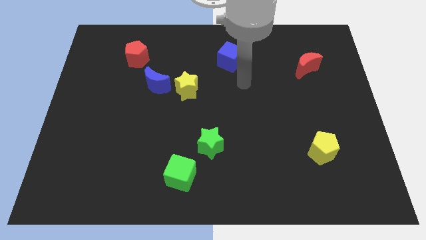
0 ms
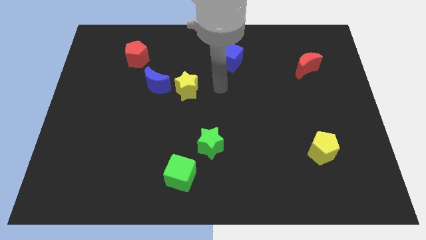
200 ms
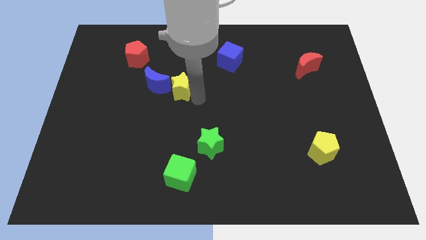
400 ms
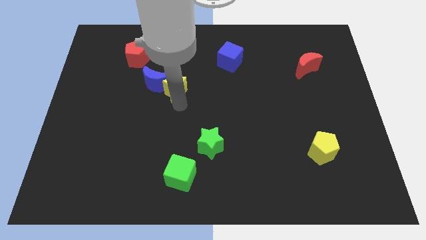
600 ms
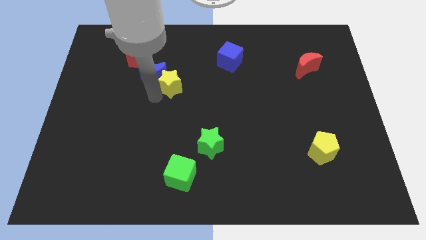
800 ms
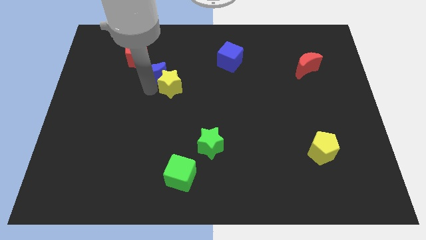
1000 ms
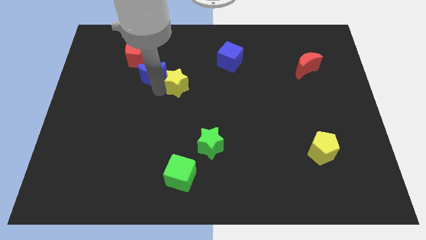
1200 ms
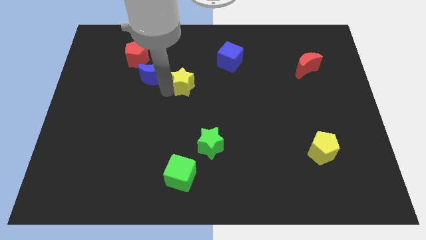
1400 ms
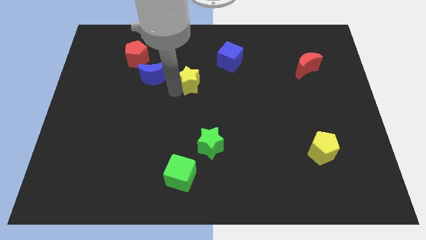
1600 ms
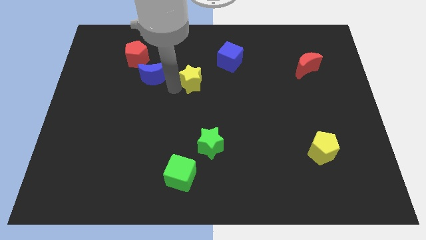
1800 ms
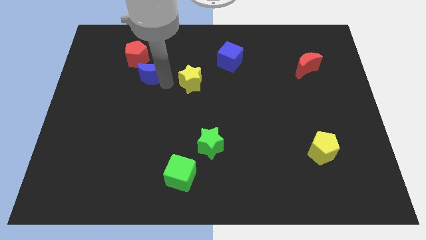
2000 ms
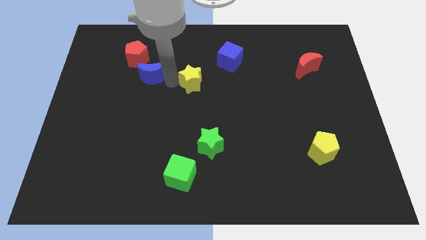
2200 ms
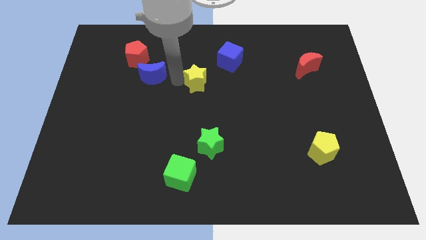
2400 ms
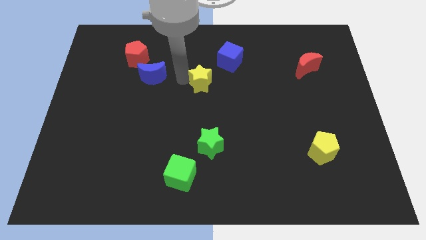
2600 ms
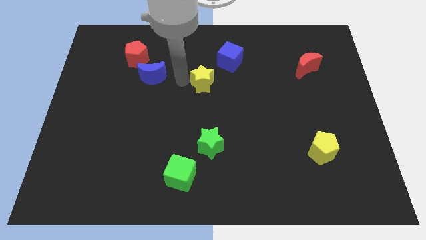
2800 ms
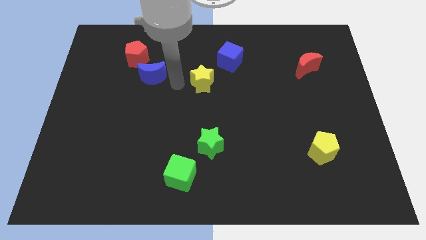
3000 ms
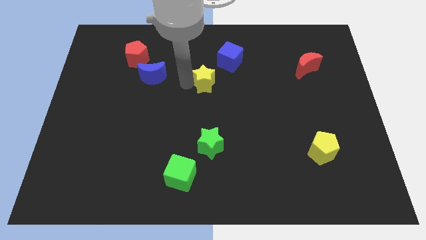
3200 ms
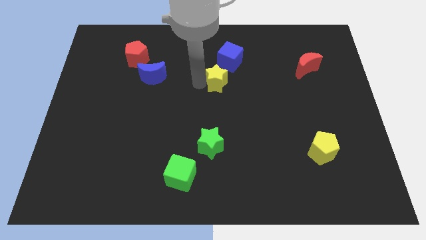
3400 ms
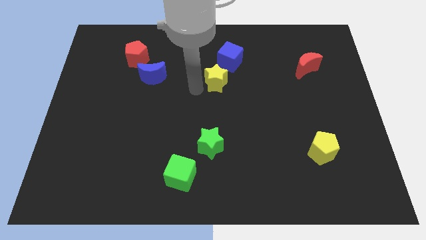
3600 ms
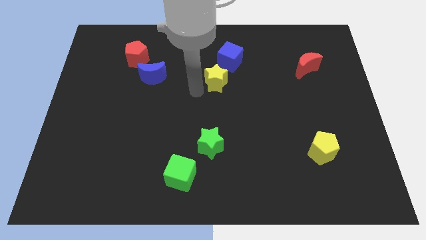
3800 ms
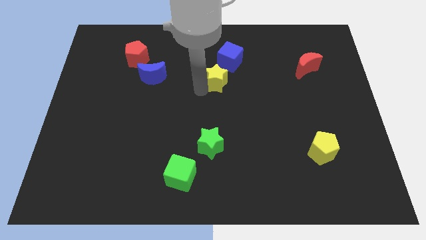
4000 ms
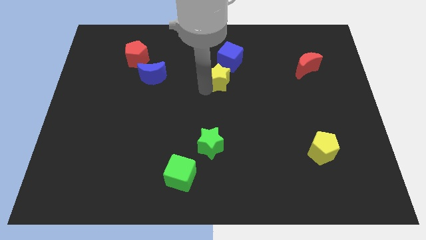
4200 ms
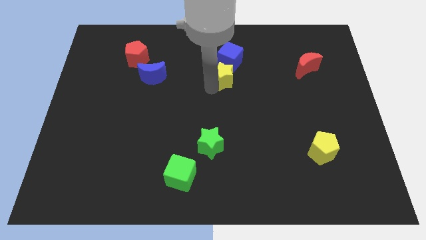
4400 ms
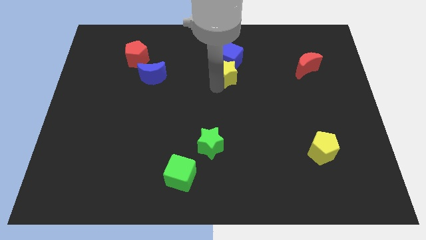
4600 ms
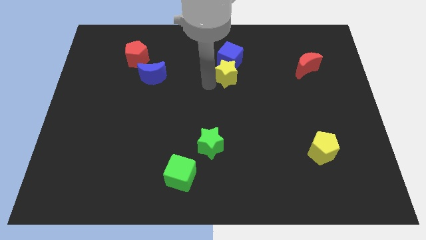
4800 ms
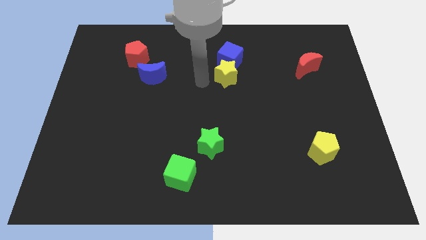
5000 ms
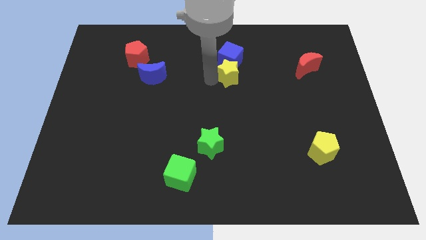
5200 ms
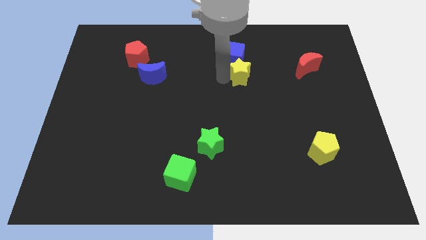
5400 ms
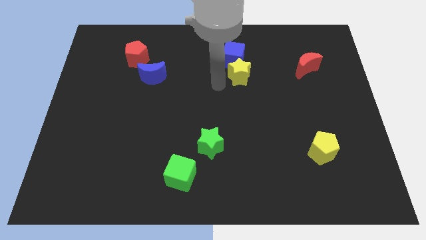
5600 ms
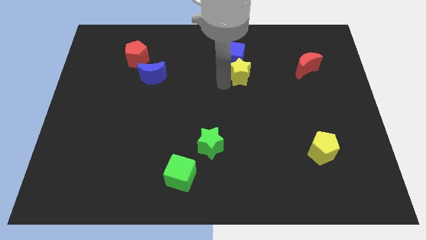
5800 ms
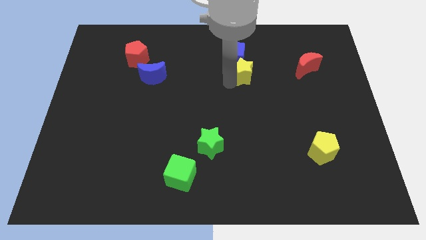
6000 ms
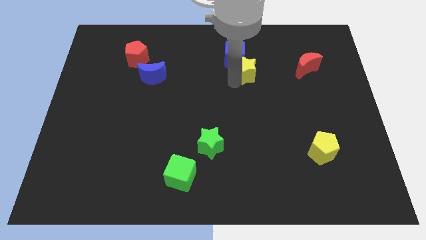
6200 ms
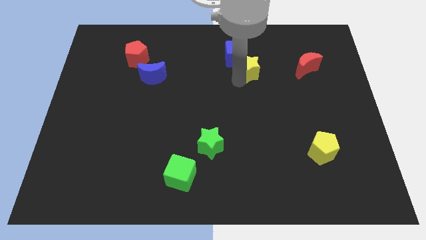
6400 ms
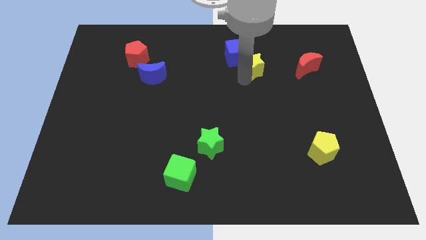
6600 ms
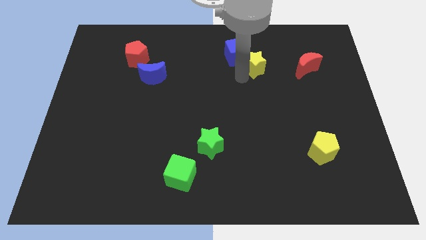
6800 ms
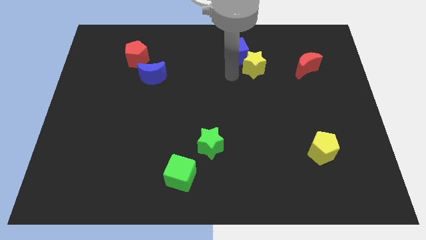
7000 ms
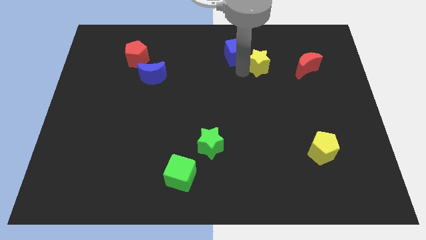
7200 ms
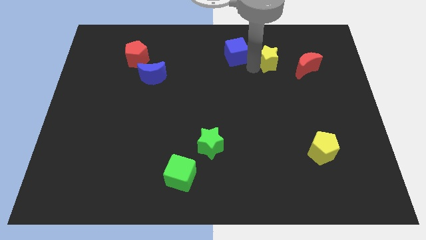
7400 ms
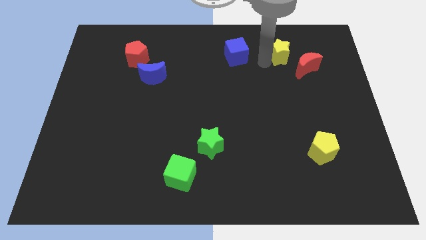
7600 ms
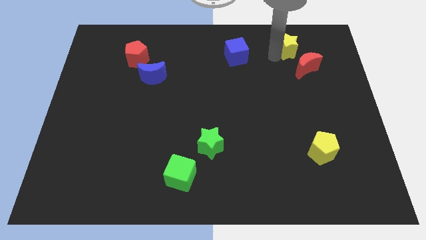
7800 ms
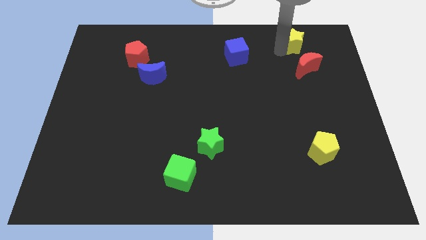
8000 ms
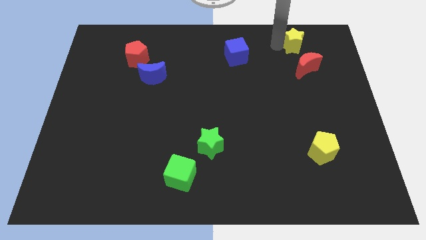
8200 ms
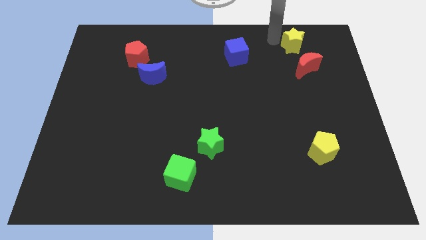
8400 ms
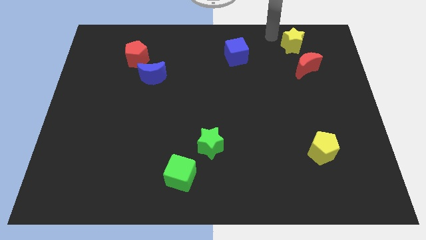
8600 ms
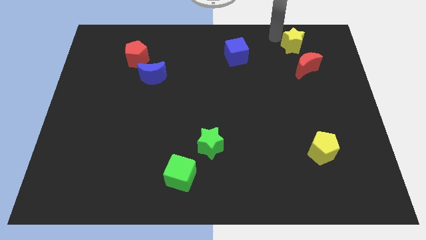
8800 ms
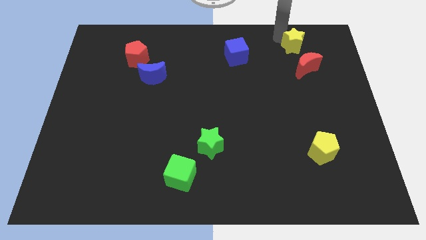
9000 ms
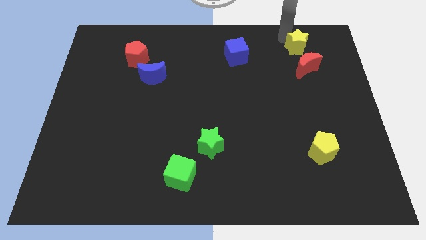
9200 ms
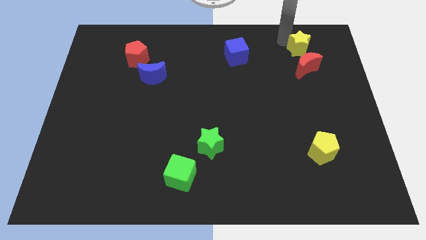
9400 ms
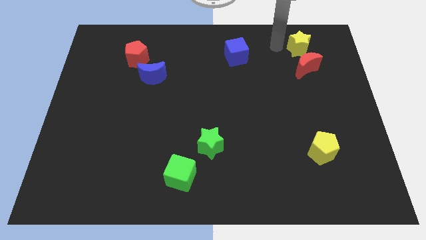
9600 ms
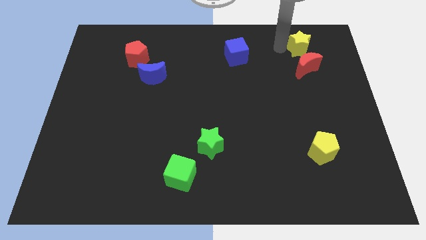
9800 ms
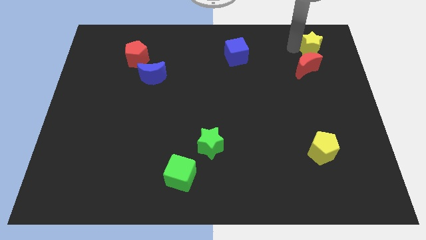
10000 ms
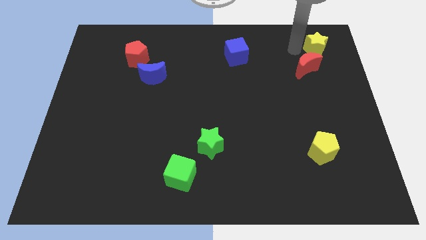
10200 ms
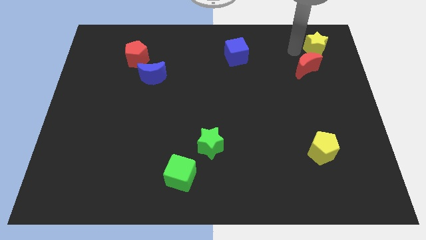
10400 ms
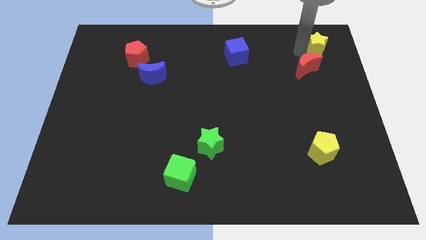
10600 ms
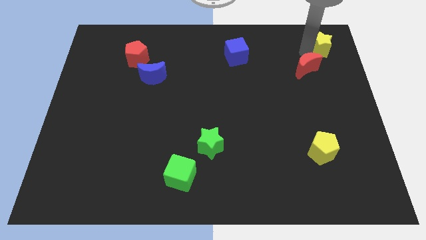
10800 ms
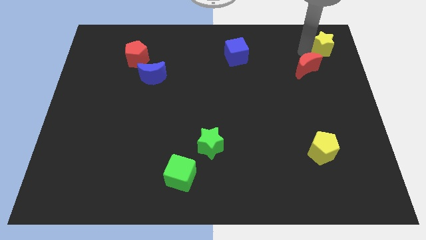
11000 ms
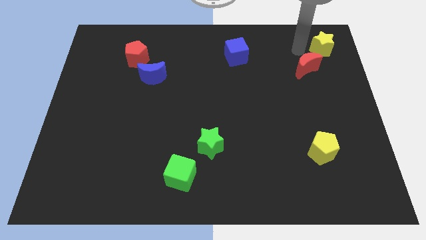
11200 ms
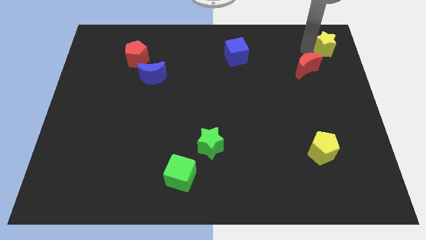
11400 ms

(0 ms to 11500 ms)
move the yellow star to the top right

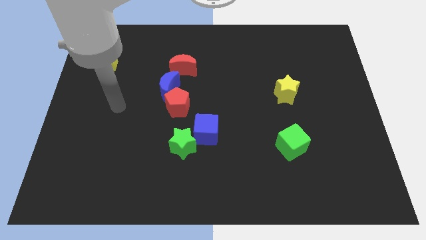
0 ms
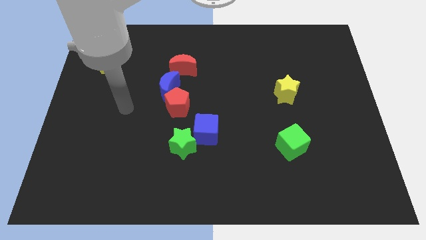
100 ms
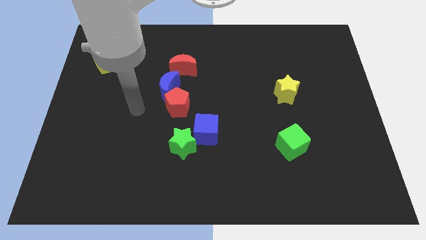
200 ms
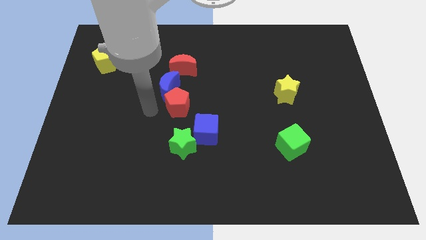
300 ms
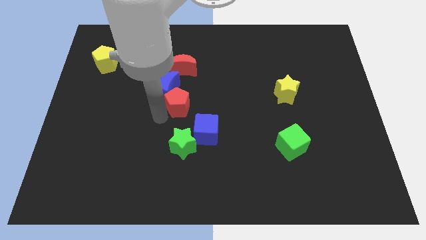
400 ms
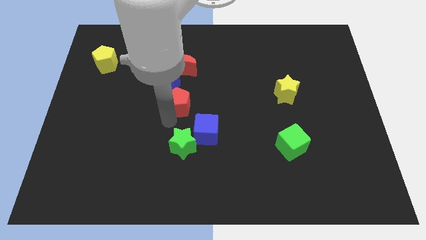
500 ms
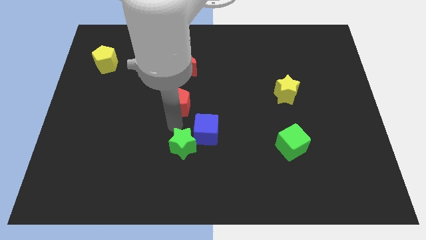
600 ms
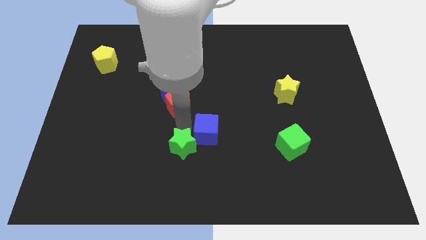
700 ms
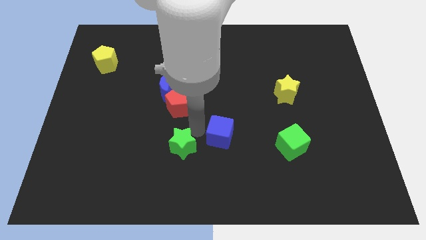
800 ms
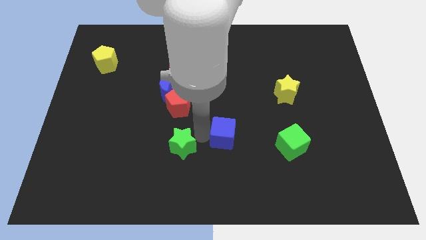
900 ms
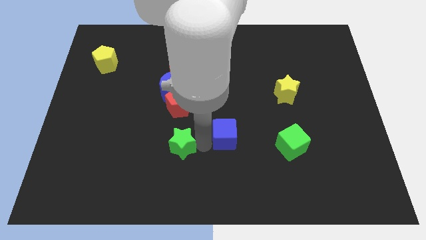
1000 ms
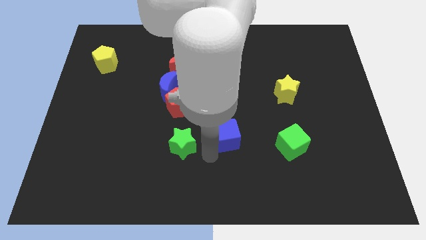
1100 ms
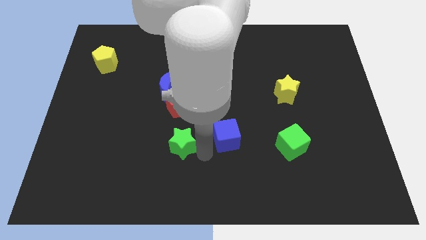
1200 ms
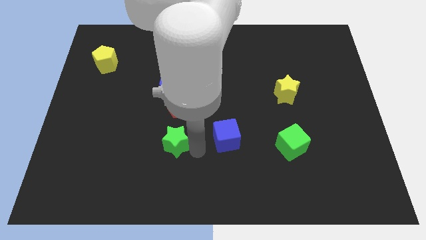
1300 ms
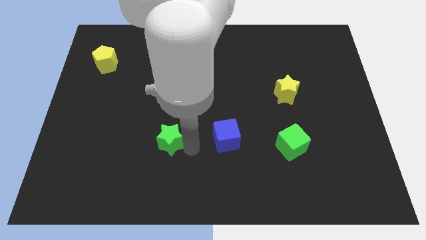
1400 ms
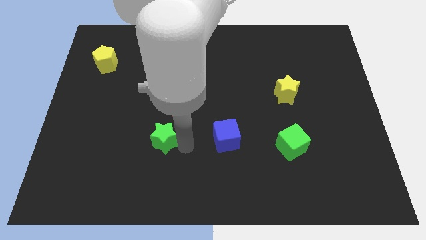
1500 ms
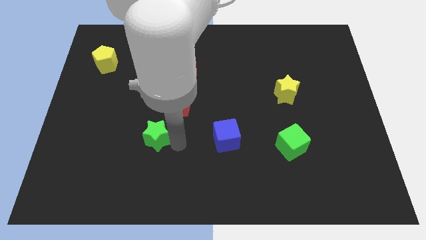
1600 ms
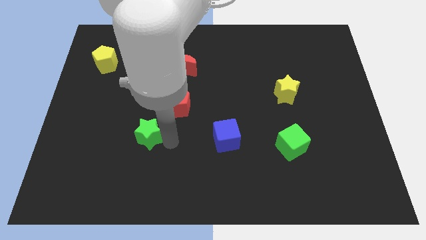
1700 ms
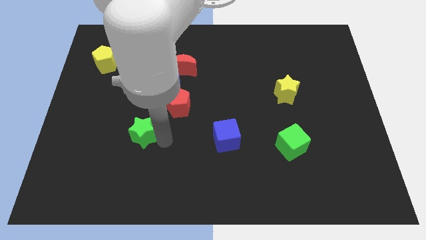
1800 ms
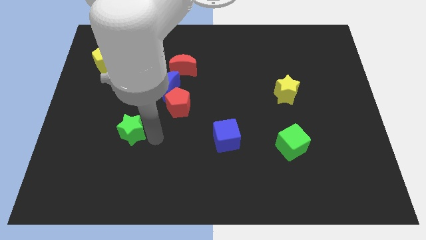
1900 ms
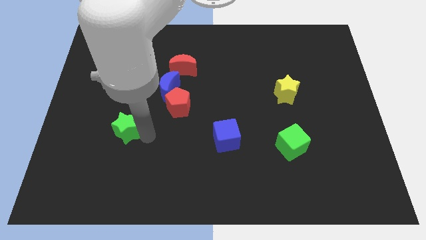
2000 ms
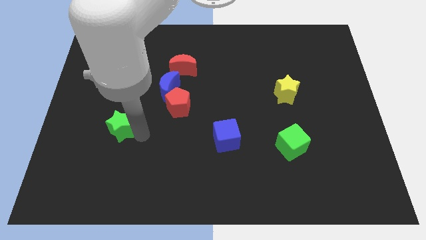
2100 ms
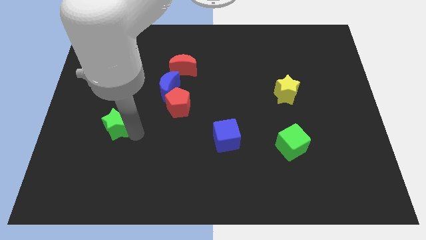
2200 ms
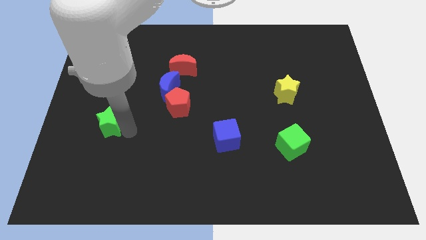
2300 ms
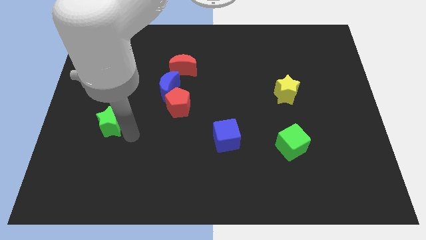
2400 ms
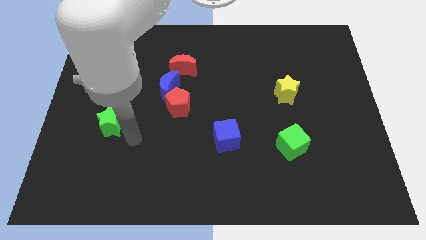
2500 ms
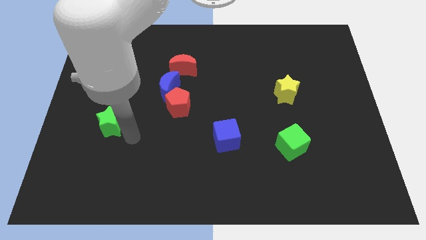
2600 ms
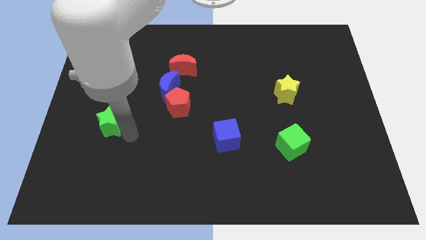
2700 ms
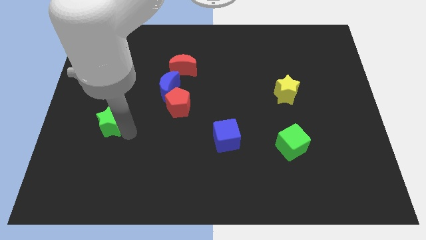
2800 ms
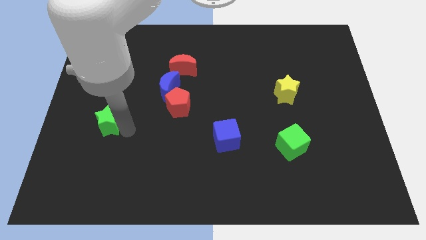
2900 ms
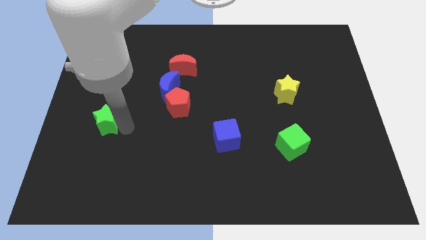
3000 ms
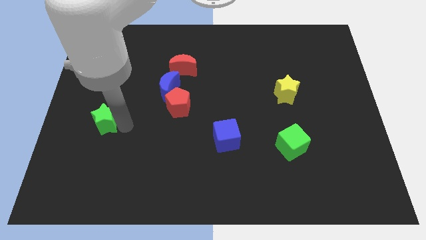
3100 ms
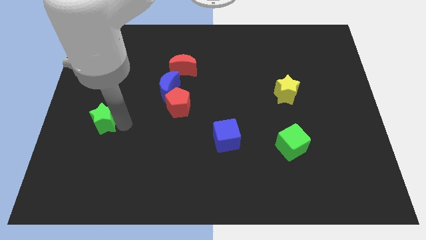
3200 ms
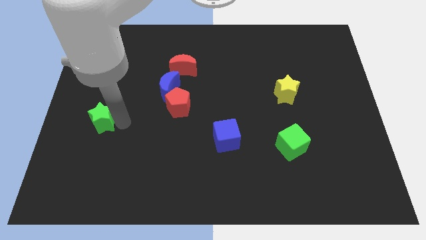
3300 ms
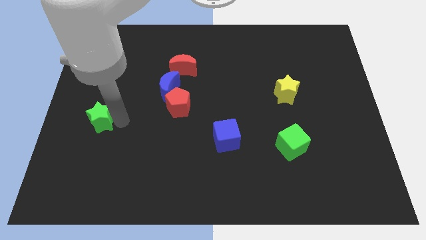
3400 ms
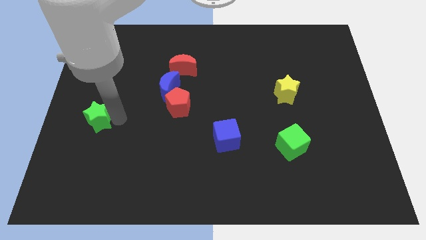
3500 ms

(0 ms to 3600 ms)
slide the green star to the left side of the board
